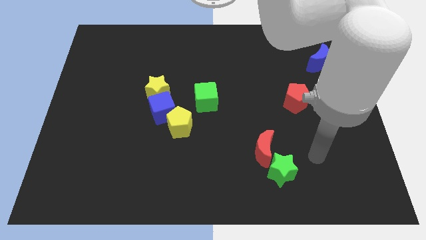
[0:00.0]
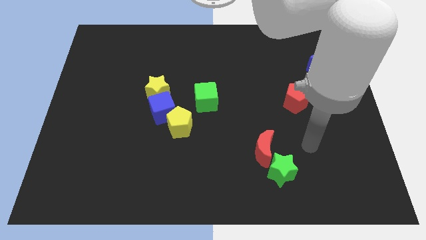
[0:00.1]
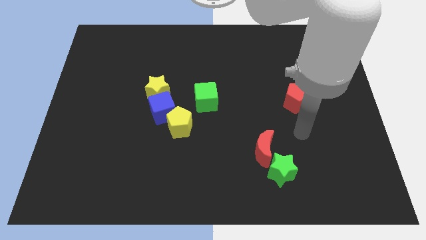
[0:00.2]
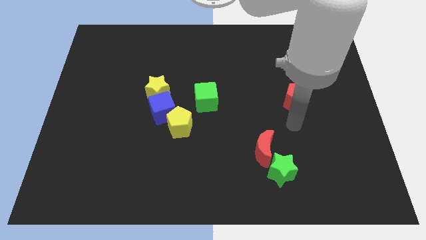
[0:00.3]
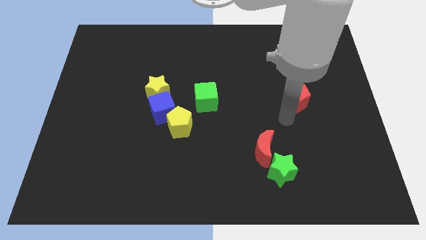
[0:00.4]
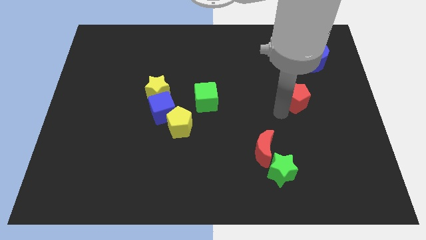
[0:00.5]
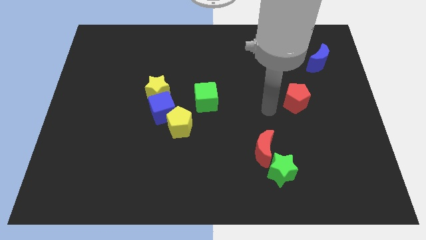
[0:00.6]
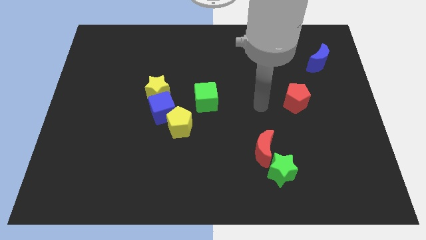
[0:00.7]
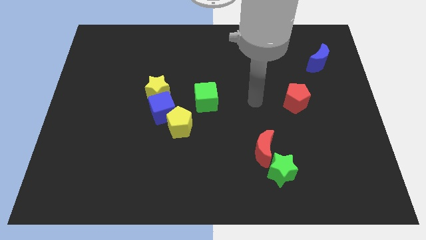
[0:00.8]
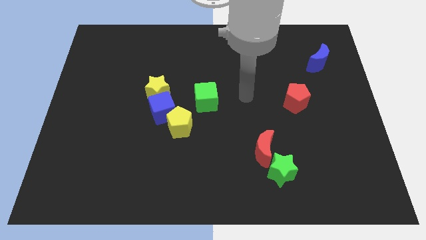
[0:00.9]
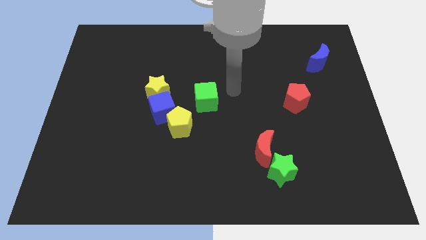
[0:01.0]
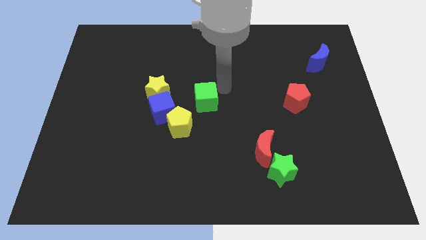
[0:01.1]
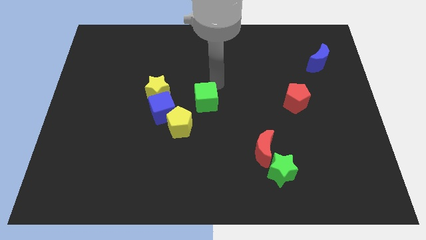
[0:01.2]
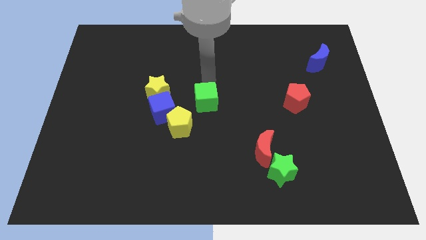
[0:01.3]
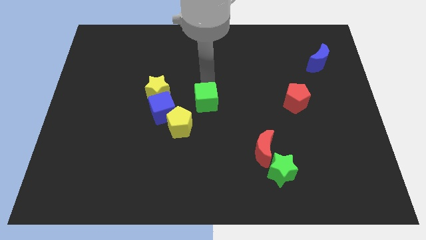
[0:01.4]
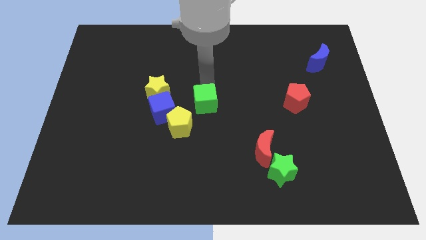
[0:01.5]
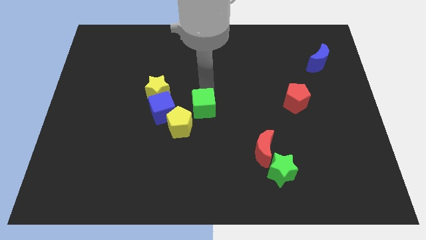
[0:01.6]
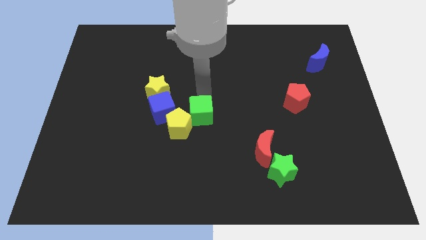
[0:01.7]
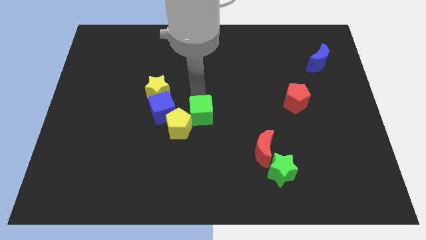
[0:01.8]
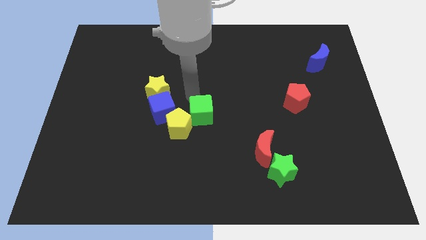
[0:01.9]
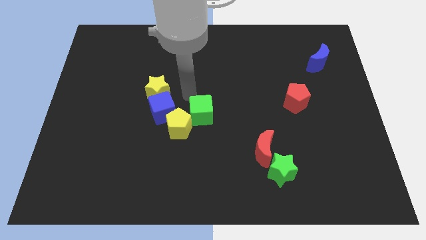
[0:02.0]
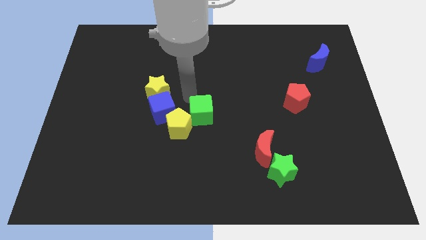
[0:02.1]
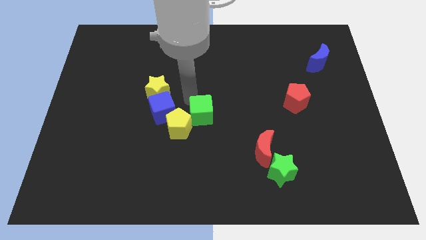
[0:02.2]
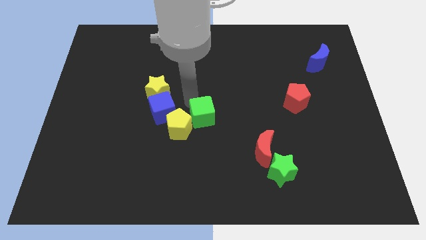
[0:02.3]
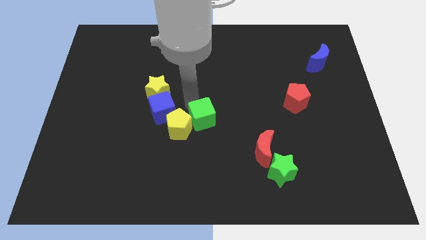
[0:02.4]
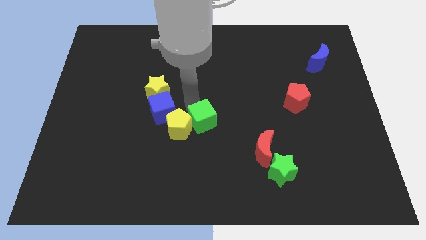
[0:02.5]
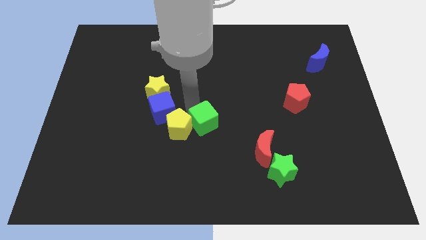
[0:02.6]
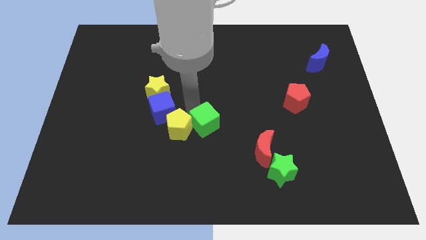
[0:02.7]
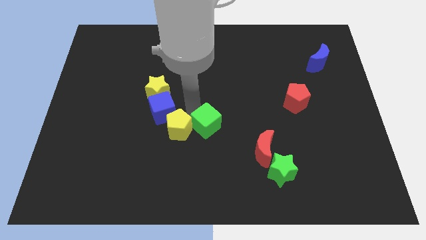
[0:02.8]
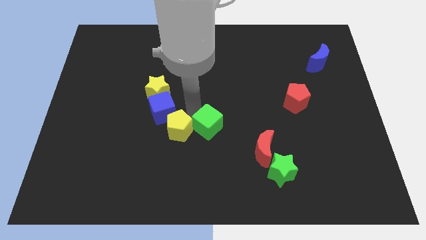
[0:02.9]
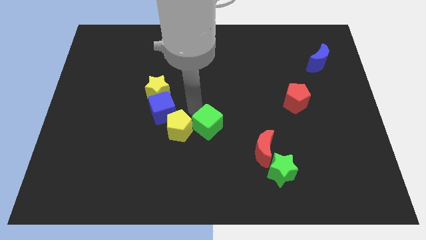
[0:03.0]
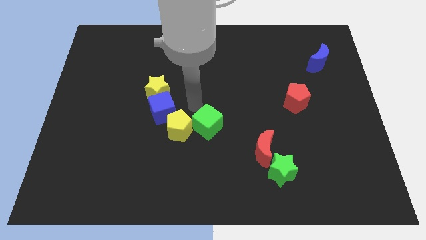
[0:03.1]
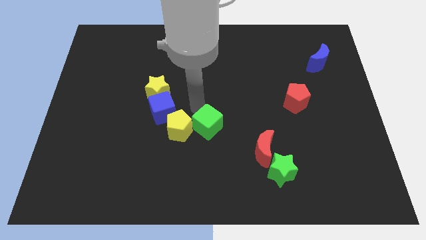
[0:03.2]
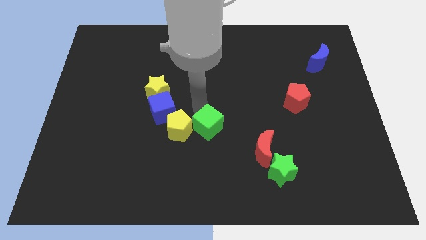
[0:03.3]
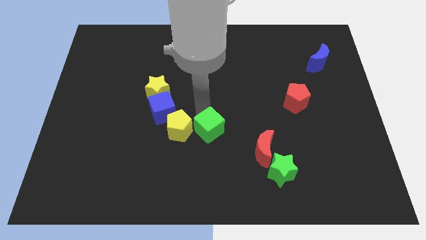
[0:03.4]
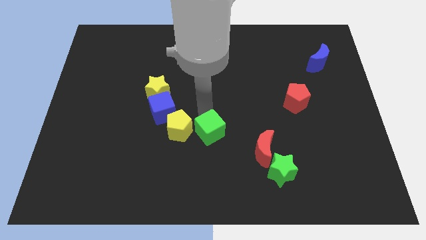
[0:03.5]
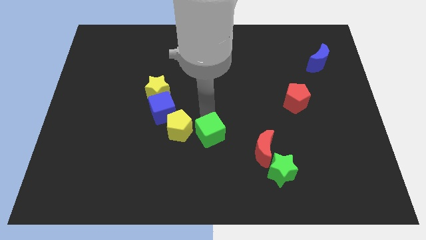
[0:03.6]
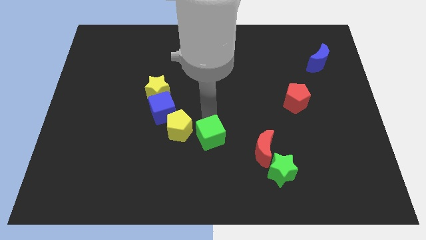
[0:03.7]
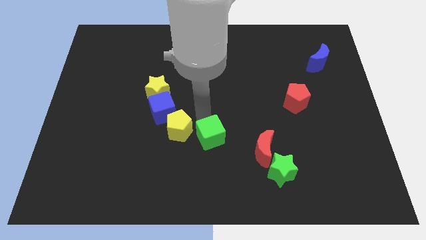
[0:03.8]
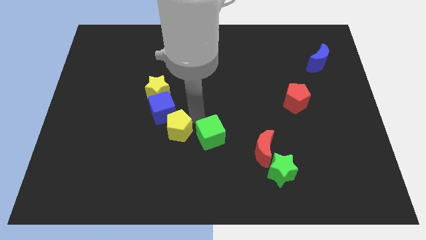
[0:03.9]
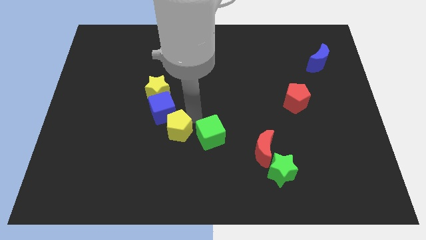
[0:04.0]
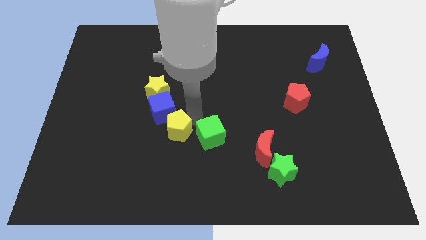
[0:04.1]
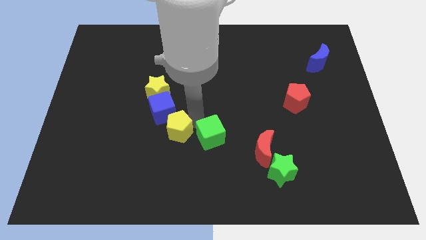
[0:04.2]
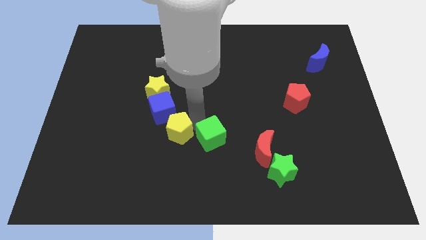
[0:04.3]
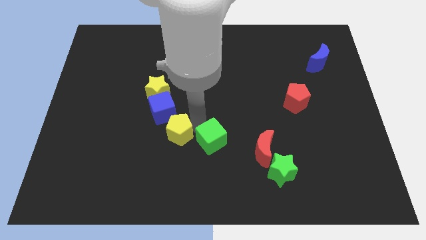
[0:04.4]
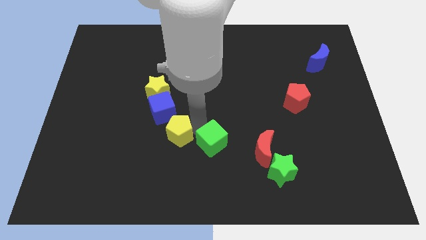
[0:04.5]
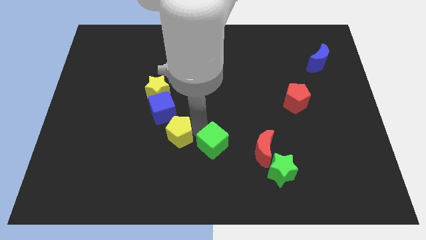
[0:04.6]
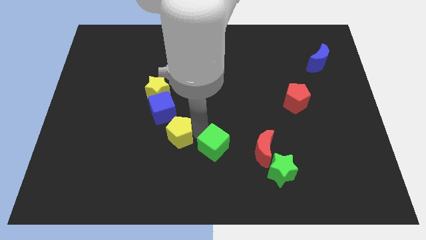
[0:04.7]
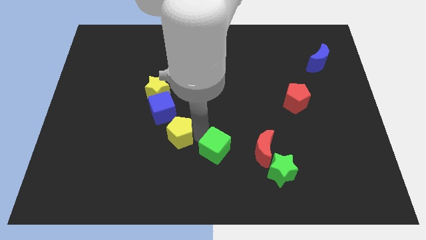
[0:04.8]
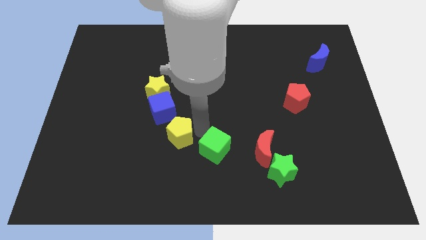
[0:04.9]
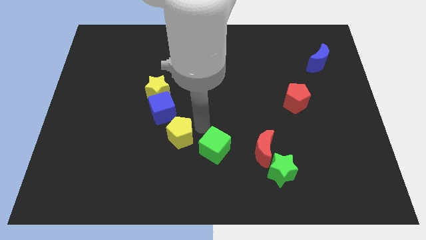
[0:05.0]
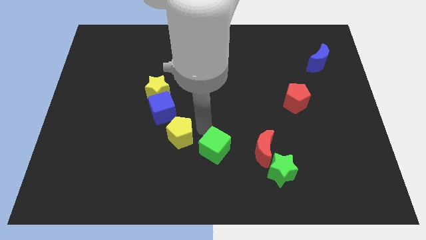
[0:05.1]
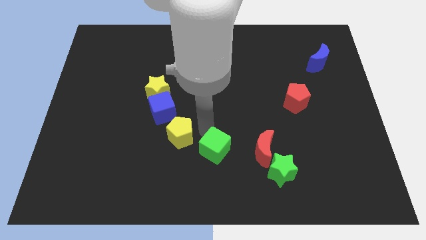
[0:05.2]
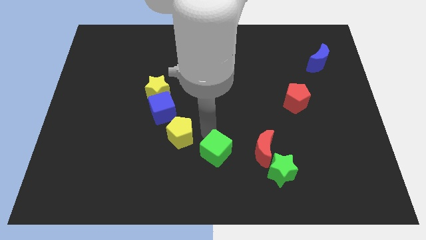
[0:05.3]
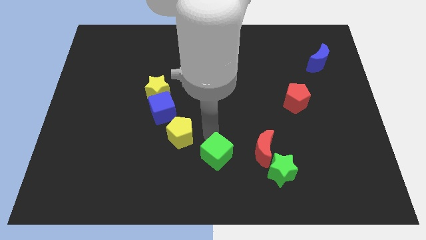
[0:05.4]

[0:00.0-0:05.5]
move the green cube left of the green star

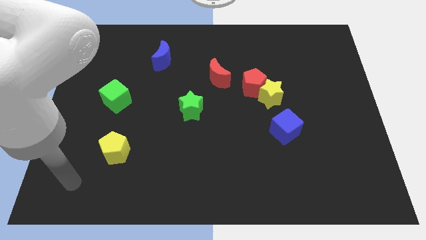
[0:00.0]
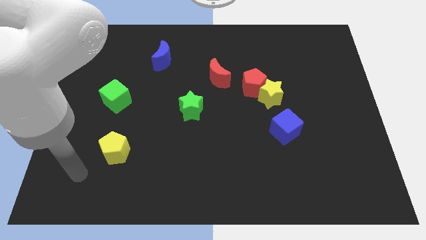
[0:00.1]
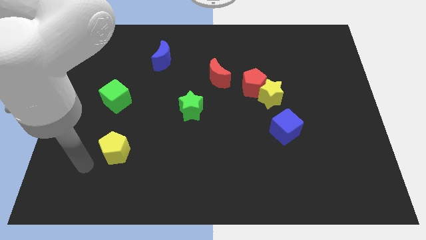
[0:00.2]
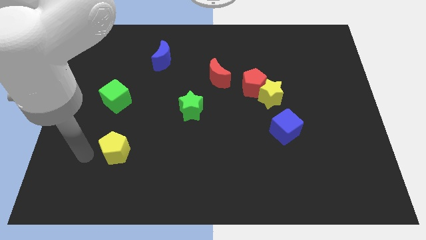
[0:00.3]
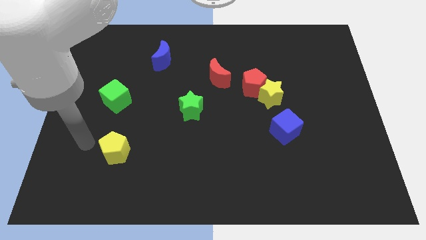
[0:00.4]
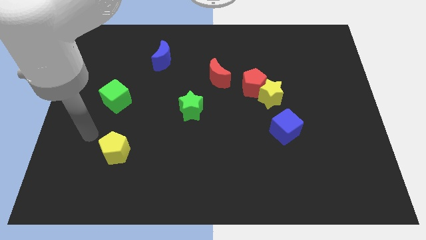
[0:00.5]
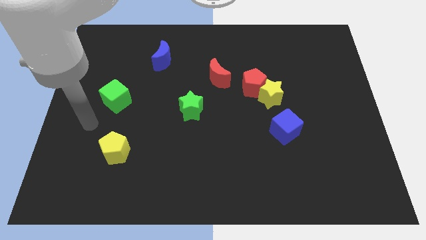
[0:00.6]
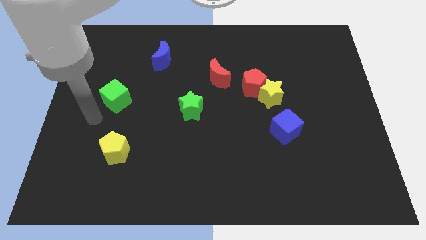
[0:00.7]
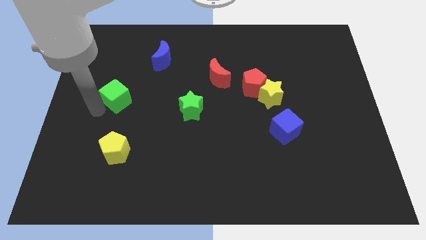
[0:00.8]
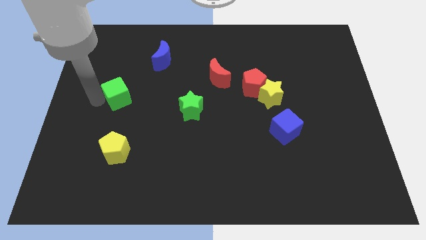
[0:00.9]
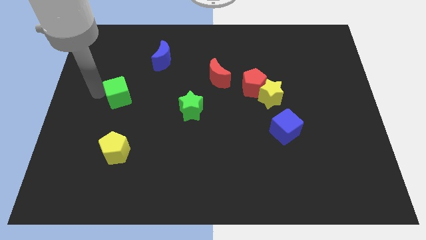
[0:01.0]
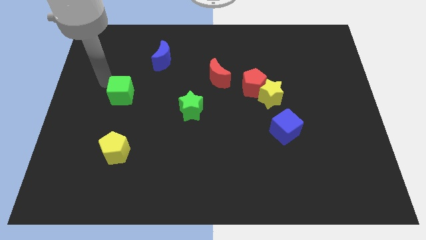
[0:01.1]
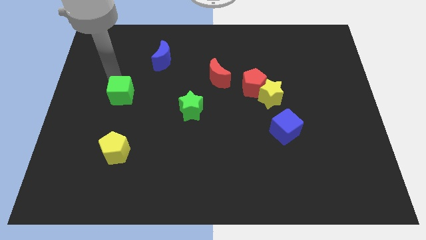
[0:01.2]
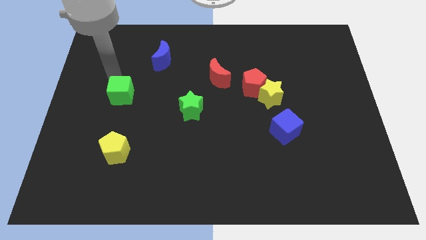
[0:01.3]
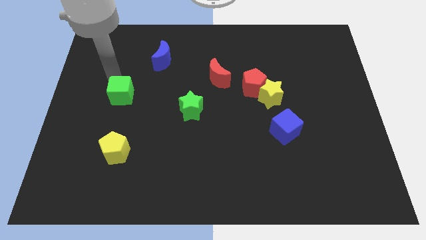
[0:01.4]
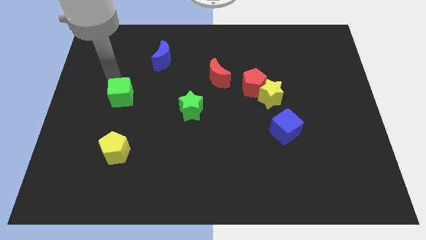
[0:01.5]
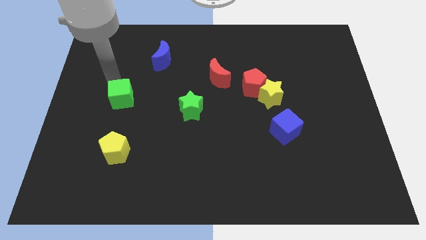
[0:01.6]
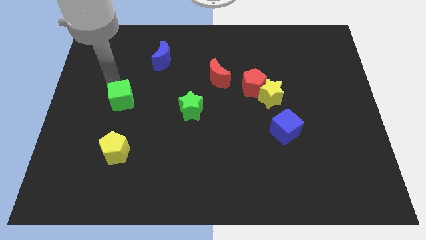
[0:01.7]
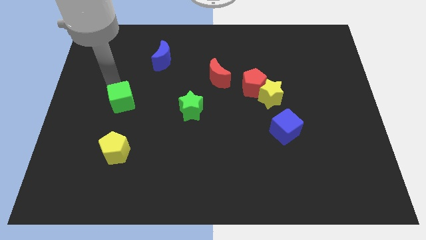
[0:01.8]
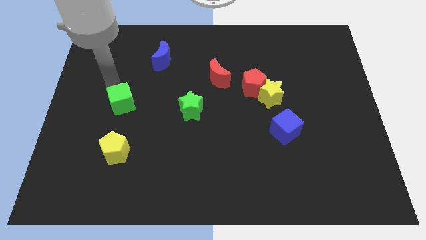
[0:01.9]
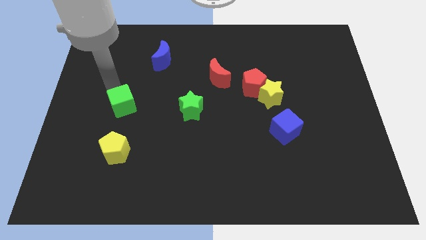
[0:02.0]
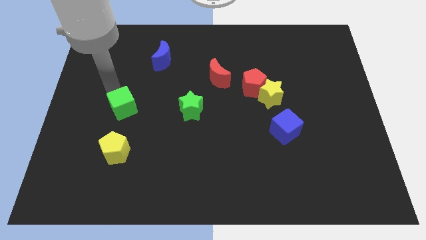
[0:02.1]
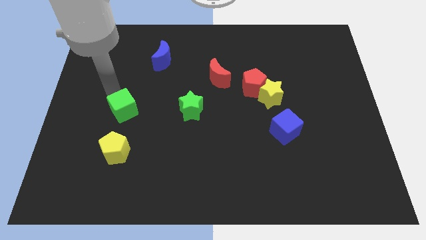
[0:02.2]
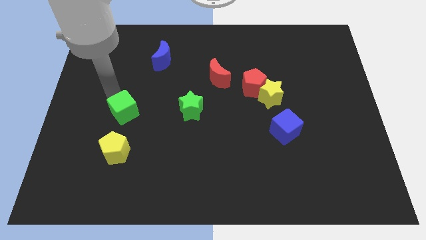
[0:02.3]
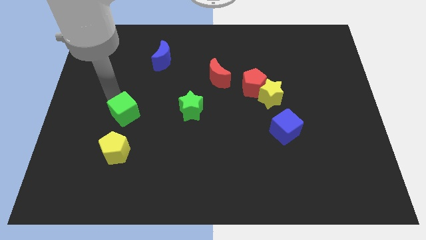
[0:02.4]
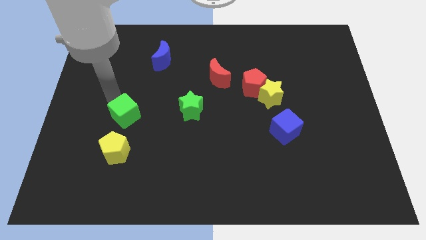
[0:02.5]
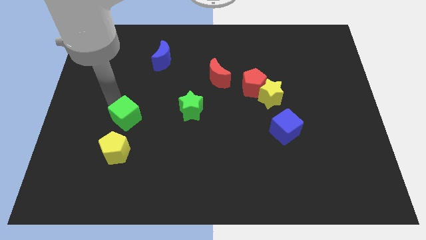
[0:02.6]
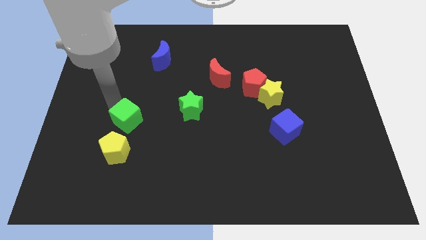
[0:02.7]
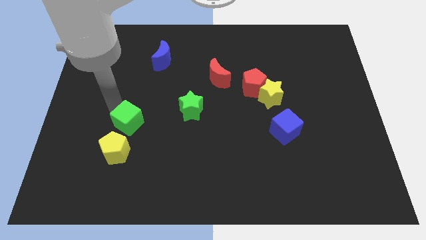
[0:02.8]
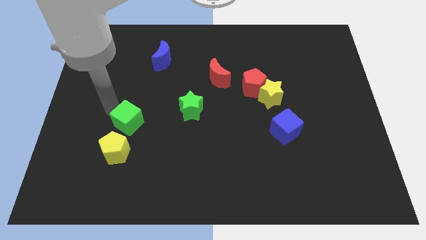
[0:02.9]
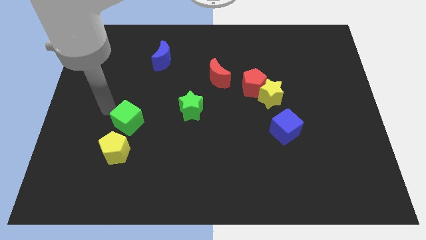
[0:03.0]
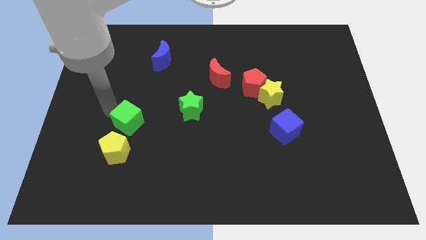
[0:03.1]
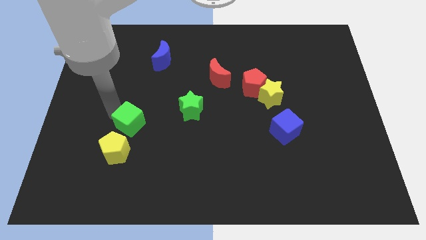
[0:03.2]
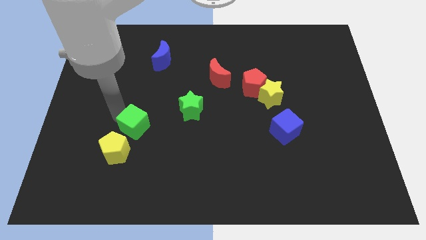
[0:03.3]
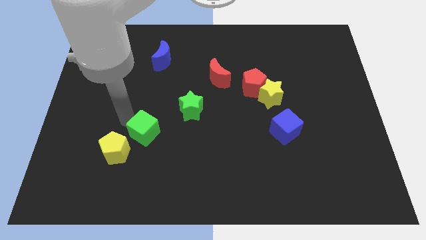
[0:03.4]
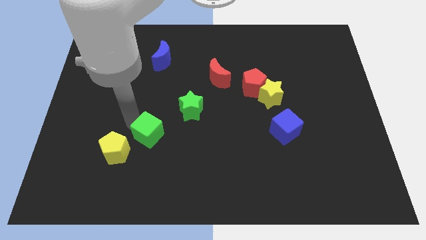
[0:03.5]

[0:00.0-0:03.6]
push the green cube right of the yellow pentagon
